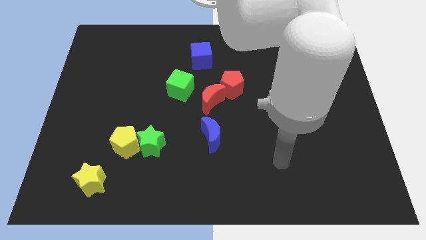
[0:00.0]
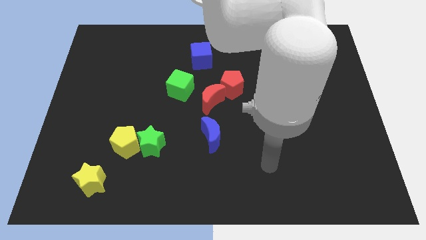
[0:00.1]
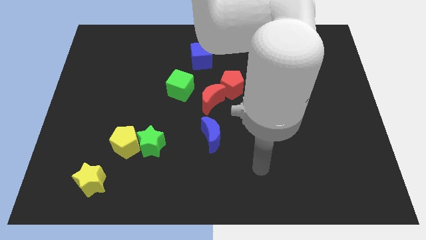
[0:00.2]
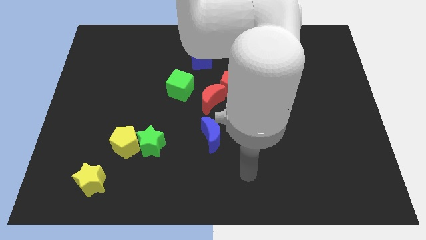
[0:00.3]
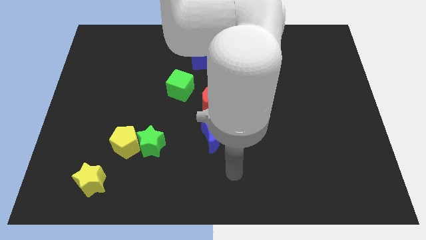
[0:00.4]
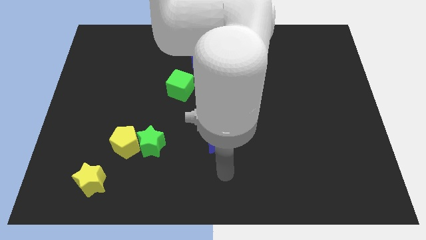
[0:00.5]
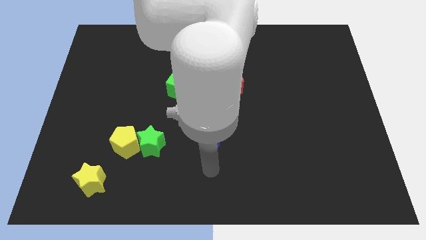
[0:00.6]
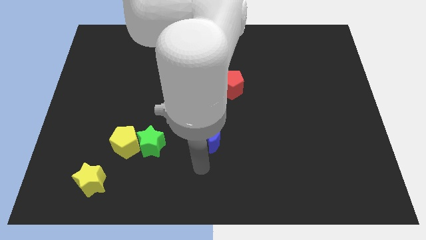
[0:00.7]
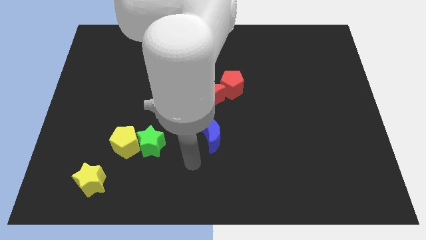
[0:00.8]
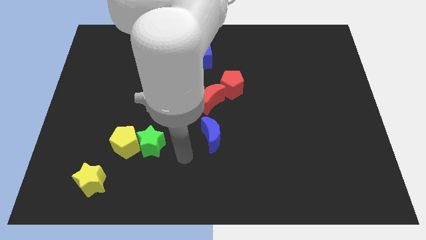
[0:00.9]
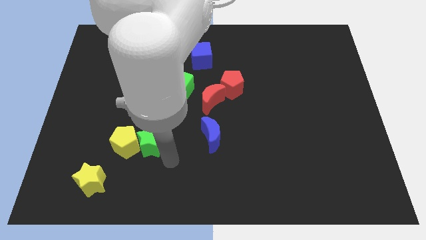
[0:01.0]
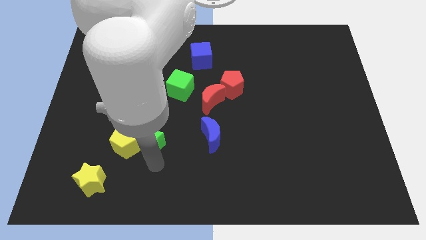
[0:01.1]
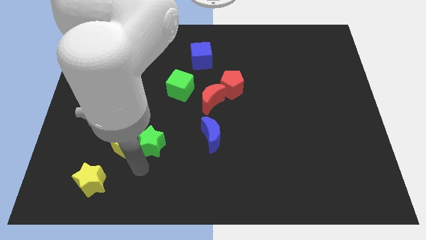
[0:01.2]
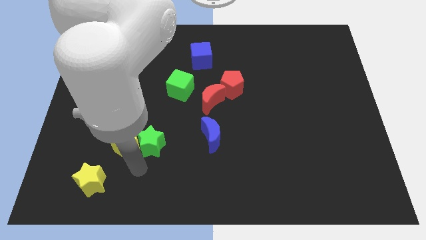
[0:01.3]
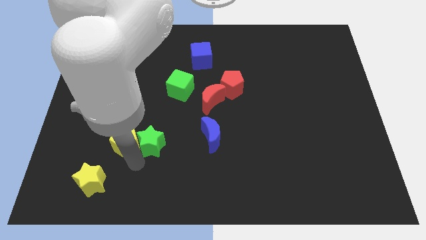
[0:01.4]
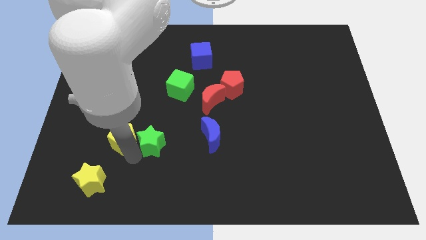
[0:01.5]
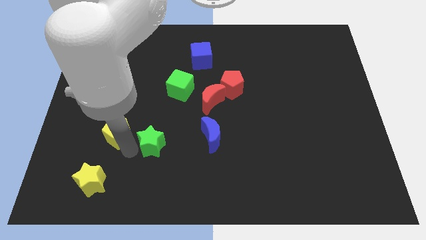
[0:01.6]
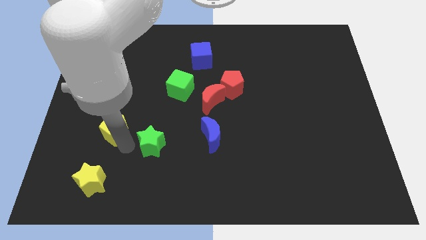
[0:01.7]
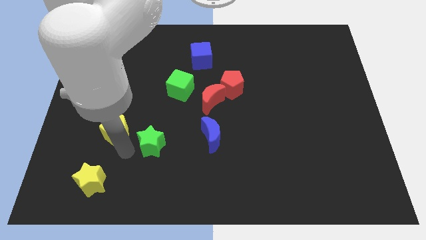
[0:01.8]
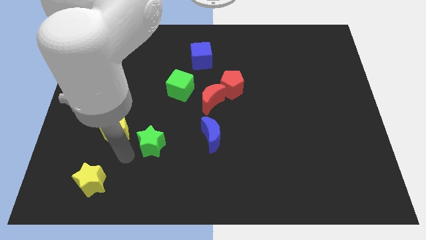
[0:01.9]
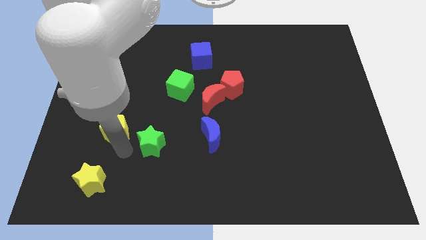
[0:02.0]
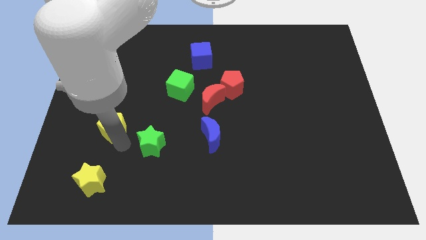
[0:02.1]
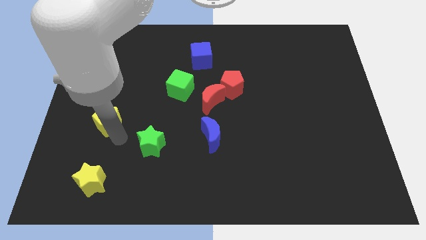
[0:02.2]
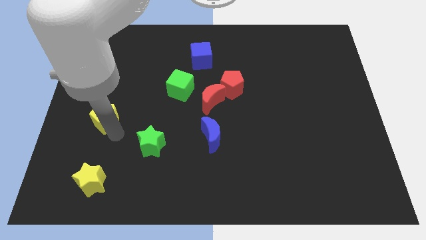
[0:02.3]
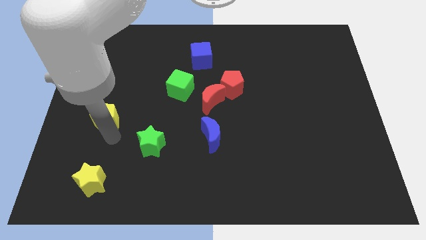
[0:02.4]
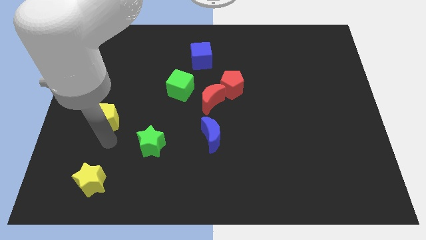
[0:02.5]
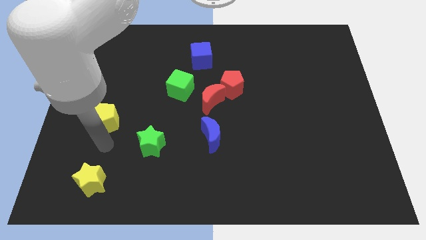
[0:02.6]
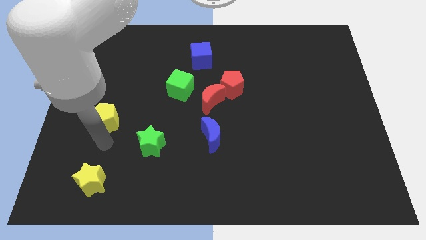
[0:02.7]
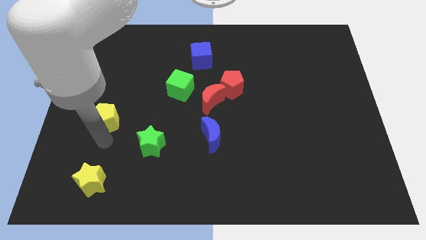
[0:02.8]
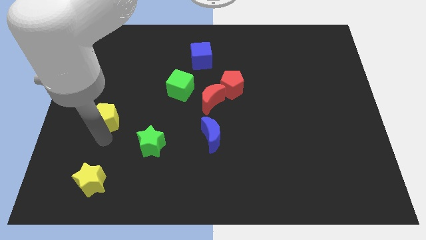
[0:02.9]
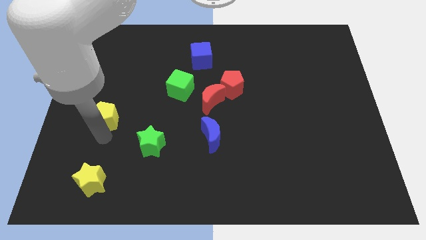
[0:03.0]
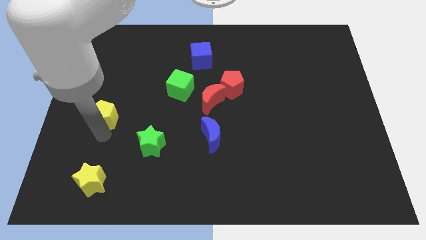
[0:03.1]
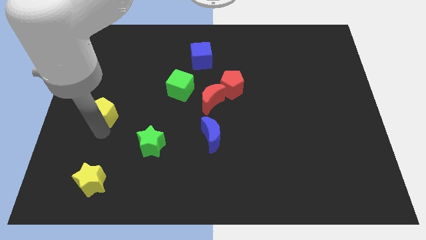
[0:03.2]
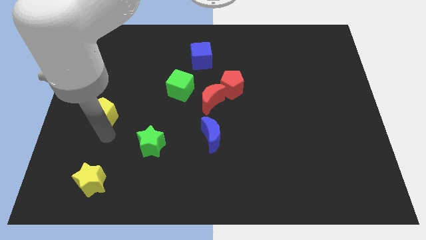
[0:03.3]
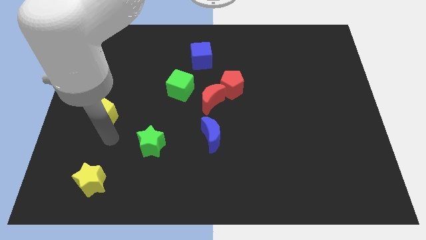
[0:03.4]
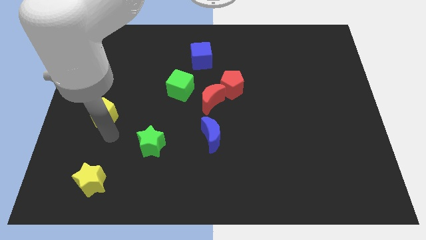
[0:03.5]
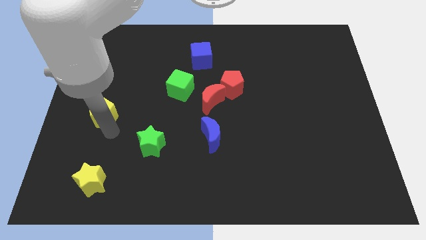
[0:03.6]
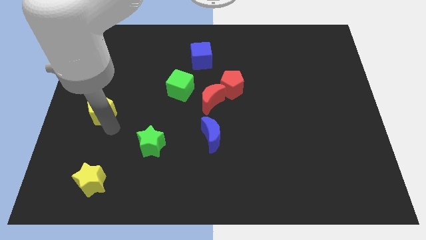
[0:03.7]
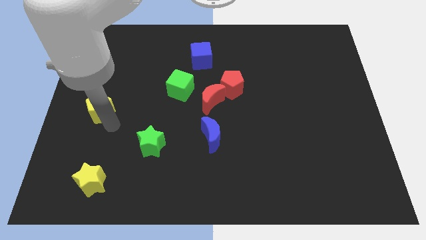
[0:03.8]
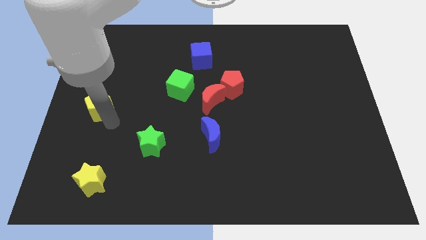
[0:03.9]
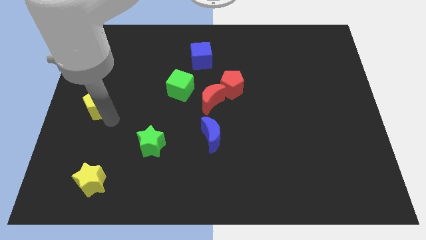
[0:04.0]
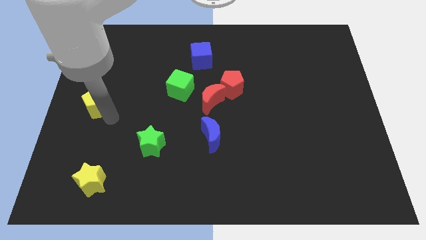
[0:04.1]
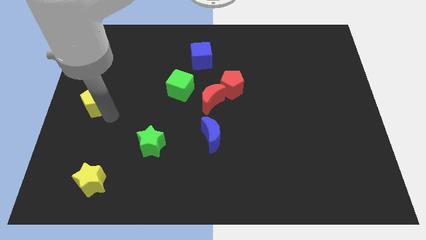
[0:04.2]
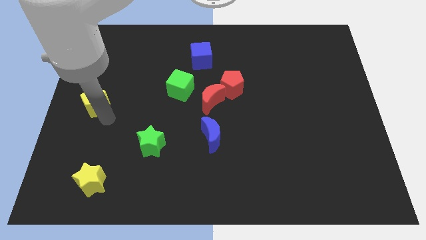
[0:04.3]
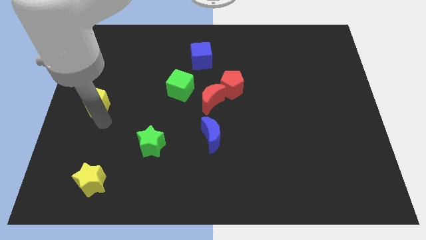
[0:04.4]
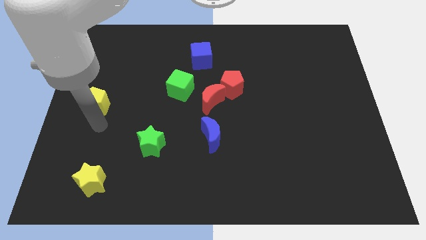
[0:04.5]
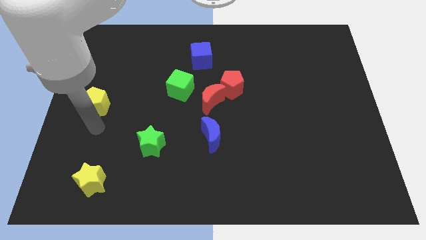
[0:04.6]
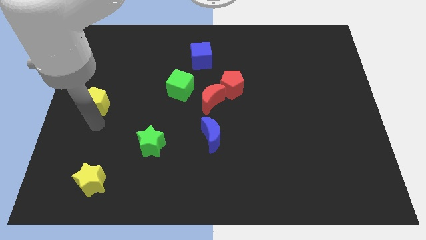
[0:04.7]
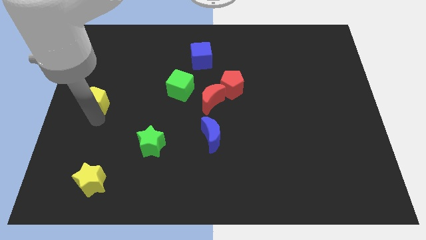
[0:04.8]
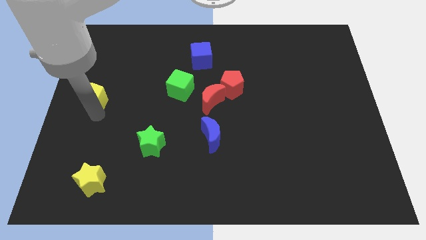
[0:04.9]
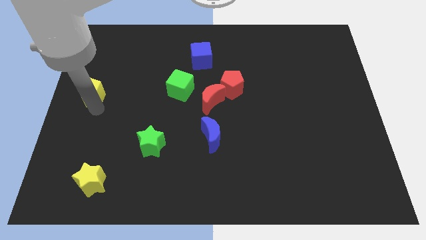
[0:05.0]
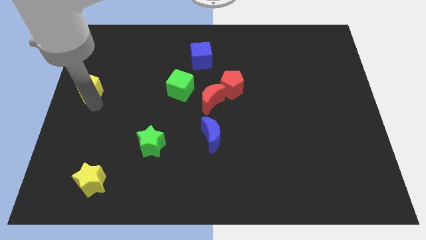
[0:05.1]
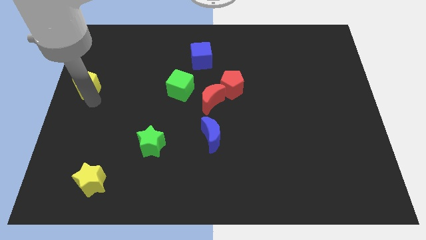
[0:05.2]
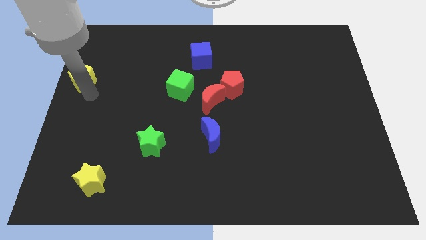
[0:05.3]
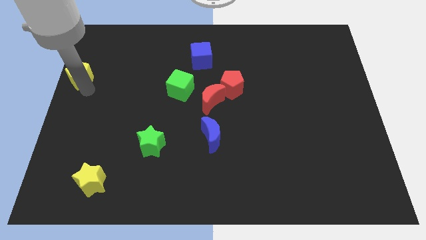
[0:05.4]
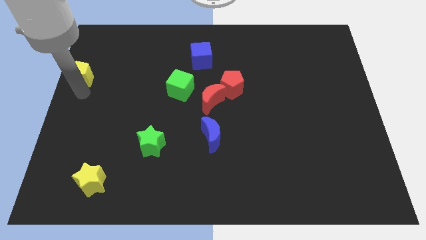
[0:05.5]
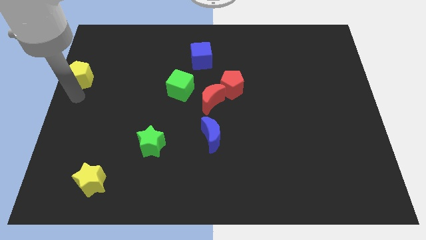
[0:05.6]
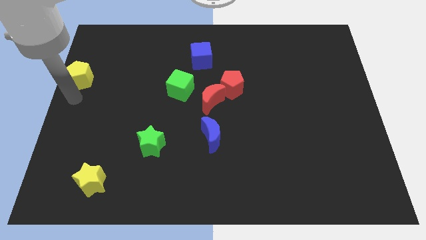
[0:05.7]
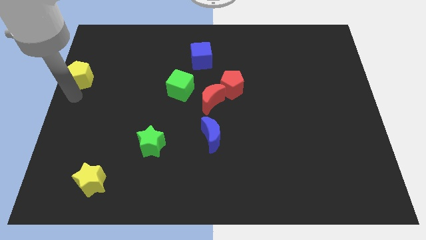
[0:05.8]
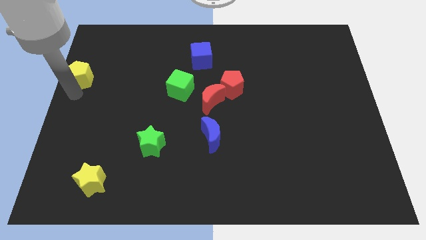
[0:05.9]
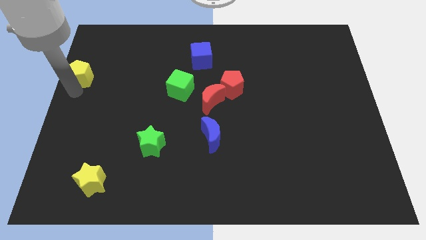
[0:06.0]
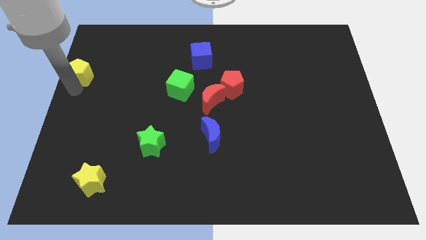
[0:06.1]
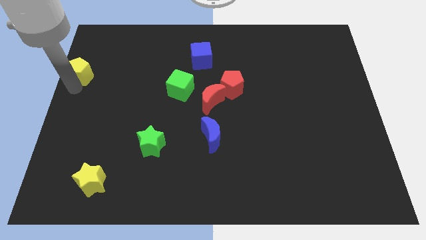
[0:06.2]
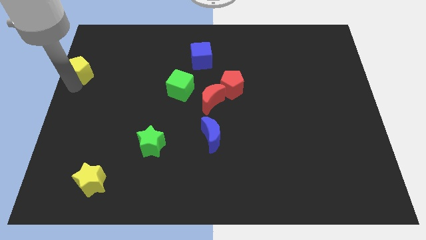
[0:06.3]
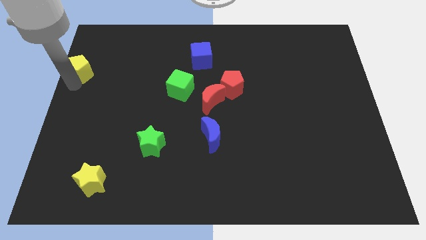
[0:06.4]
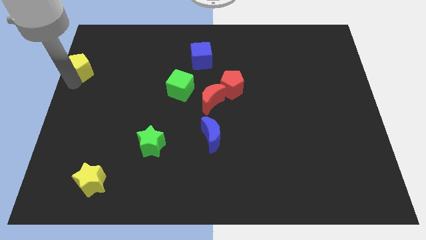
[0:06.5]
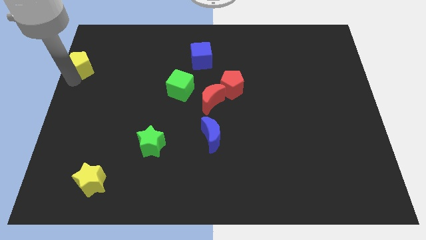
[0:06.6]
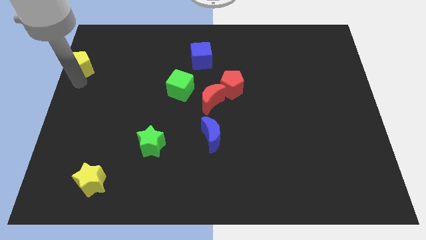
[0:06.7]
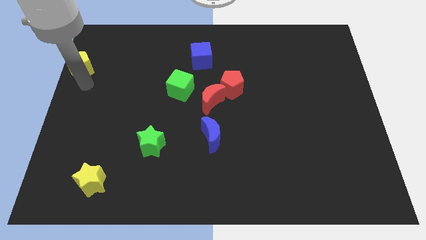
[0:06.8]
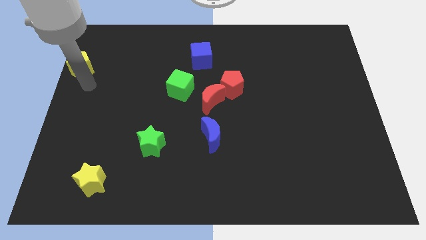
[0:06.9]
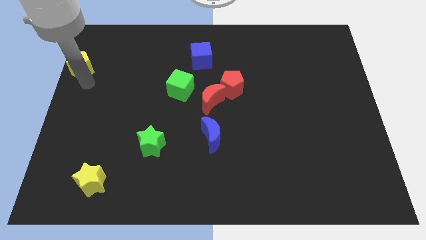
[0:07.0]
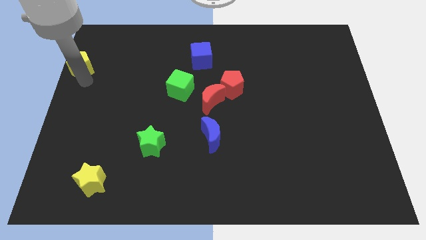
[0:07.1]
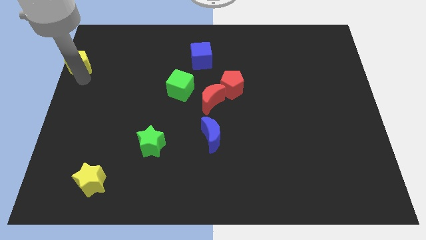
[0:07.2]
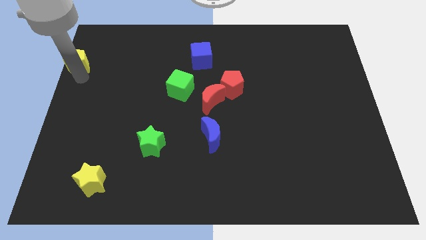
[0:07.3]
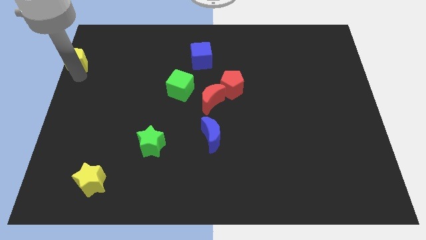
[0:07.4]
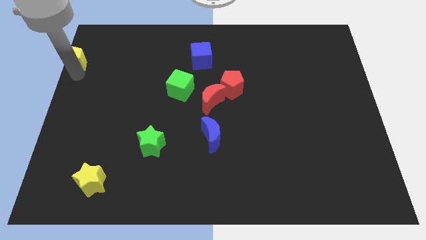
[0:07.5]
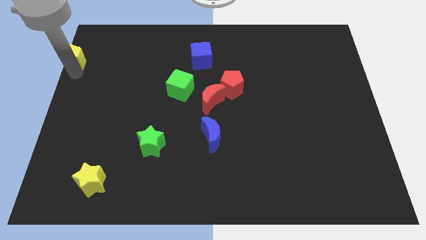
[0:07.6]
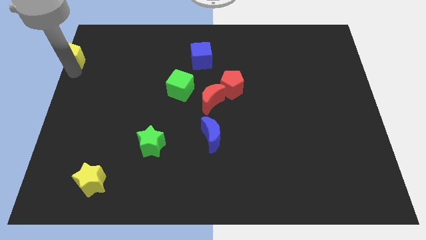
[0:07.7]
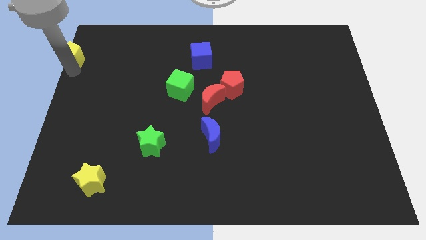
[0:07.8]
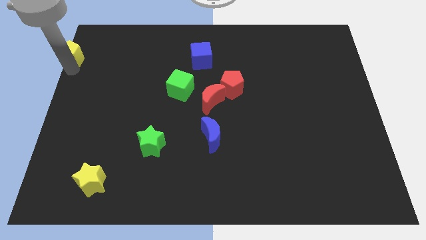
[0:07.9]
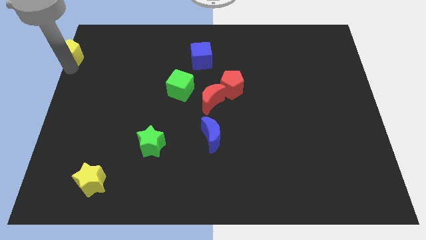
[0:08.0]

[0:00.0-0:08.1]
slide the yellow pentagon to the top left
